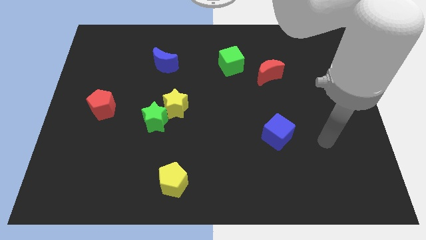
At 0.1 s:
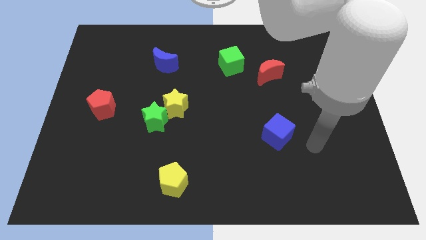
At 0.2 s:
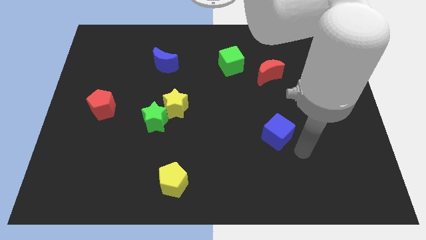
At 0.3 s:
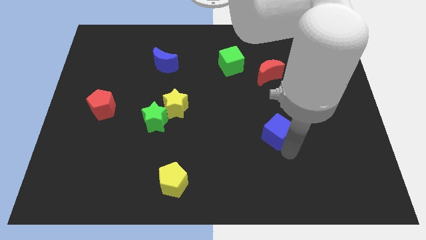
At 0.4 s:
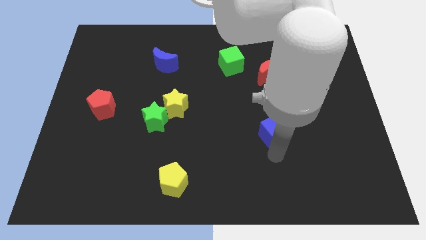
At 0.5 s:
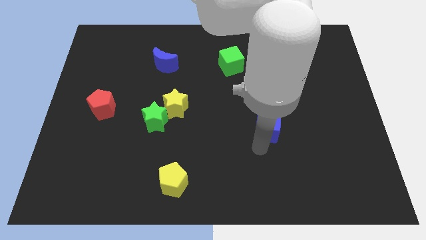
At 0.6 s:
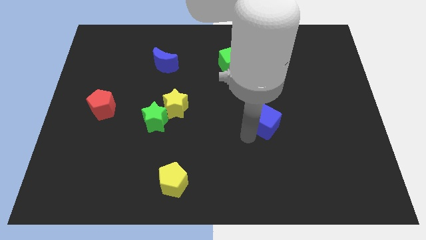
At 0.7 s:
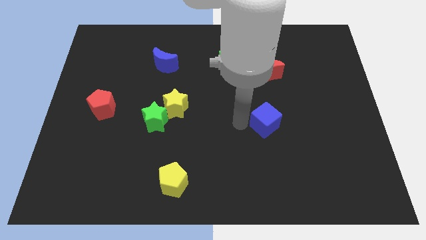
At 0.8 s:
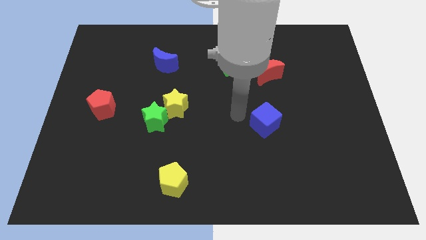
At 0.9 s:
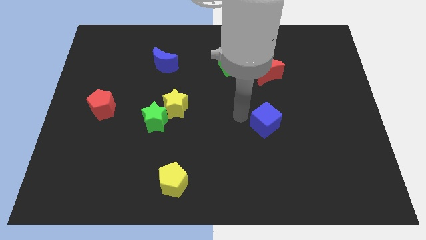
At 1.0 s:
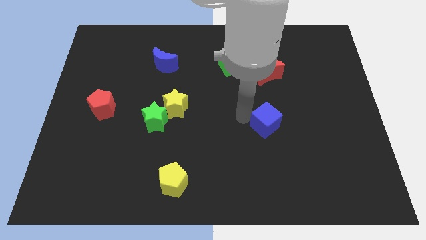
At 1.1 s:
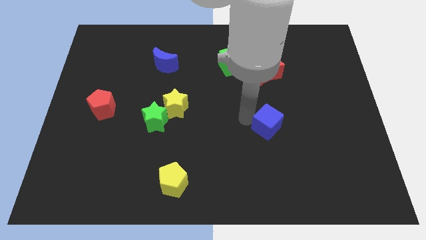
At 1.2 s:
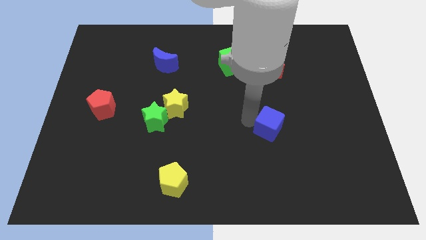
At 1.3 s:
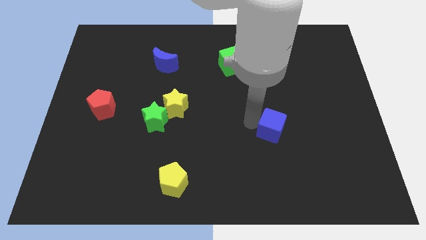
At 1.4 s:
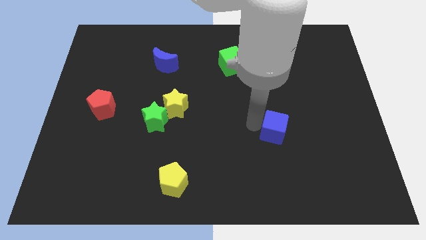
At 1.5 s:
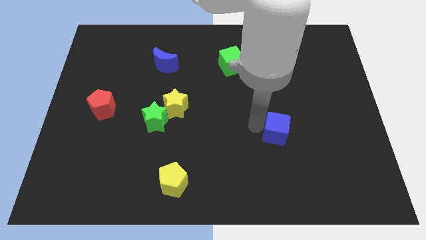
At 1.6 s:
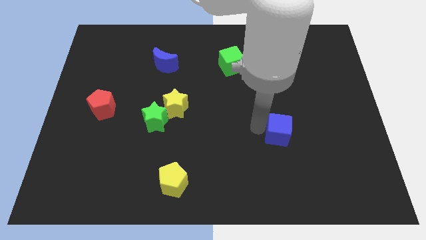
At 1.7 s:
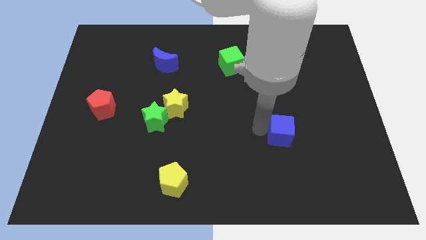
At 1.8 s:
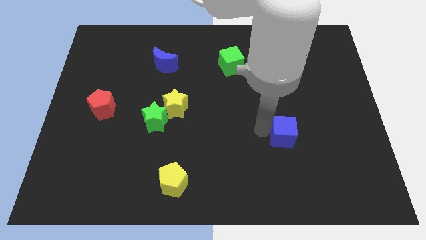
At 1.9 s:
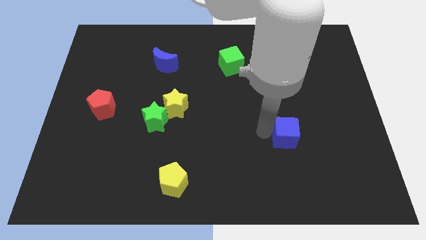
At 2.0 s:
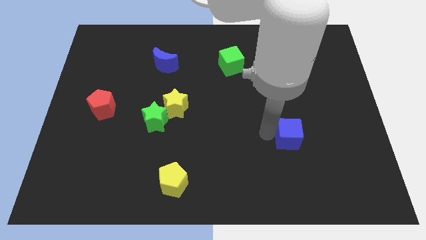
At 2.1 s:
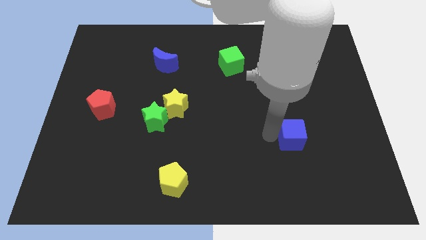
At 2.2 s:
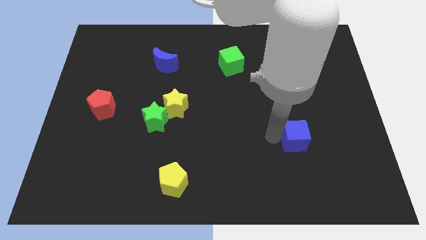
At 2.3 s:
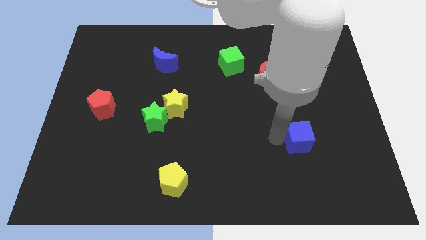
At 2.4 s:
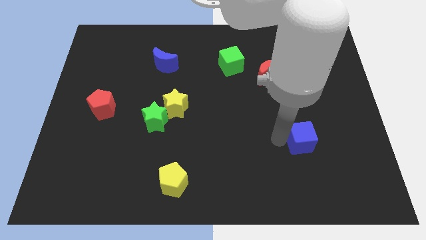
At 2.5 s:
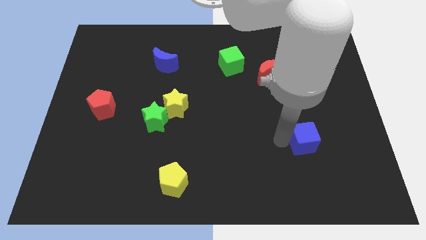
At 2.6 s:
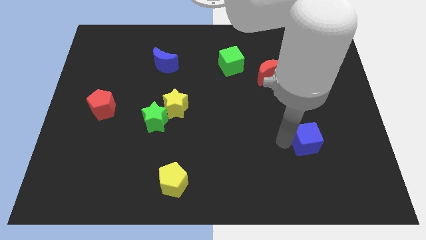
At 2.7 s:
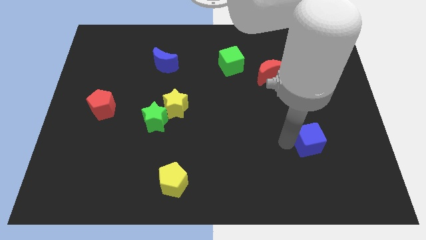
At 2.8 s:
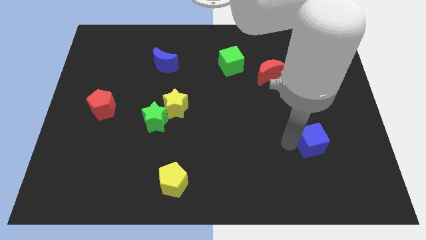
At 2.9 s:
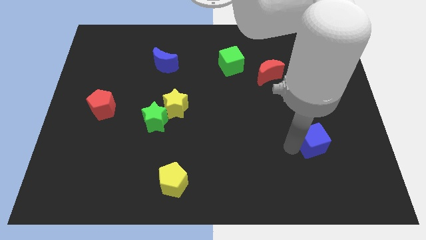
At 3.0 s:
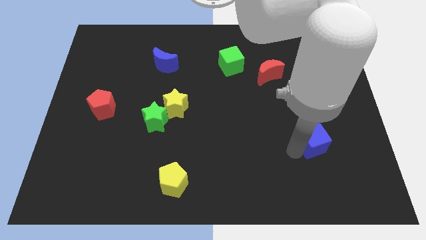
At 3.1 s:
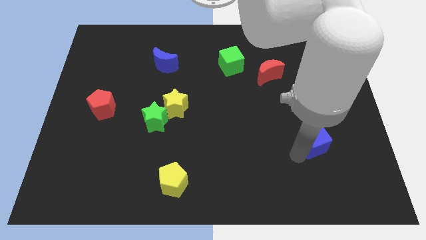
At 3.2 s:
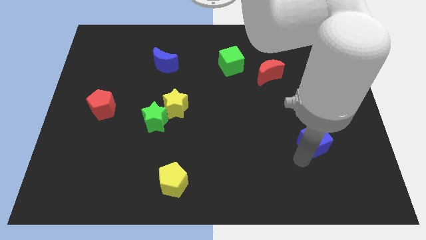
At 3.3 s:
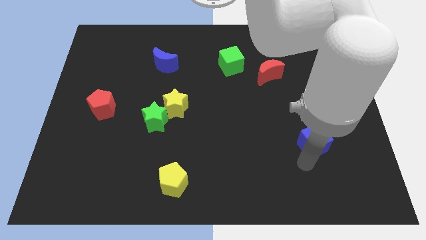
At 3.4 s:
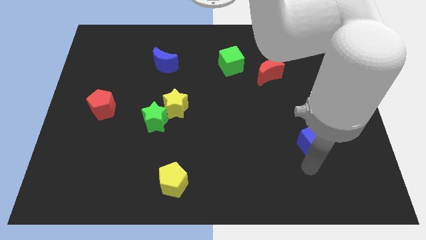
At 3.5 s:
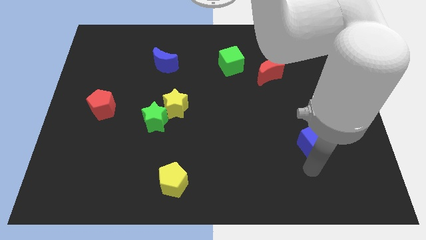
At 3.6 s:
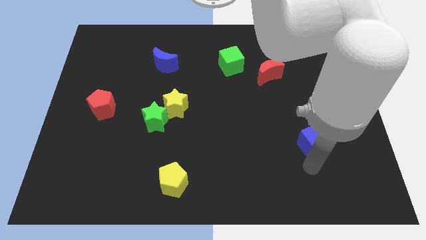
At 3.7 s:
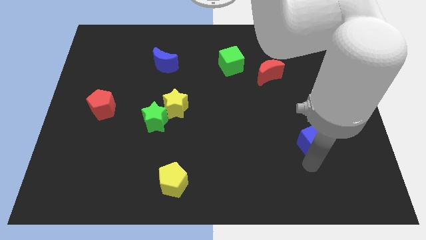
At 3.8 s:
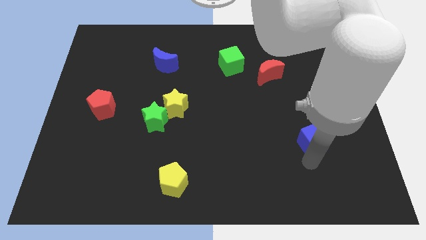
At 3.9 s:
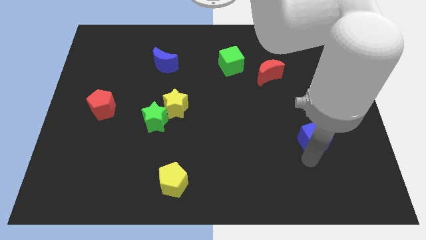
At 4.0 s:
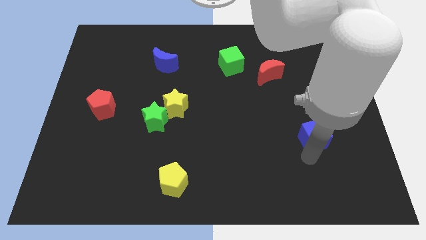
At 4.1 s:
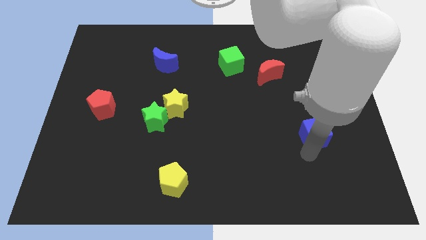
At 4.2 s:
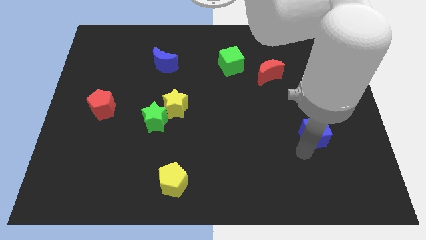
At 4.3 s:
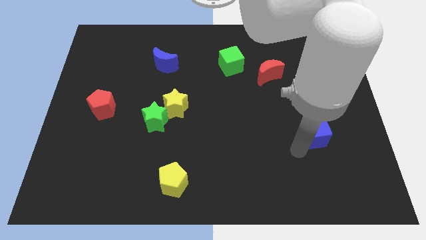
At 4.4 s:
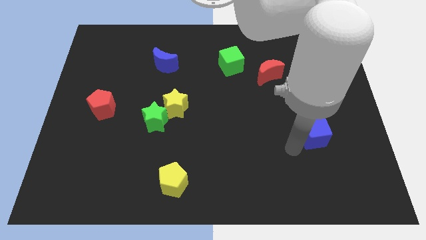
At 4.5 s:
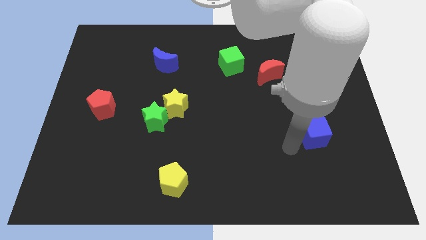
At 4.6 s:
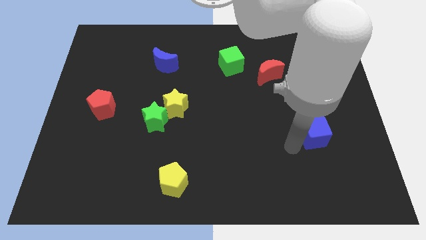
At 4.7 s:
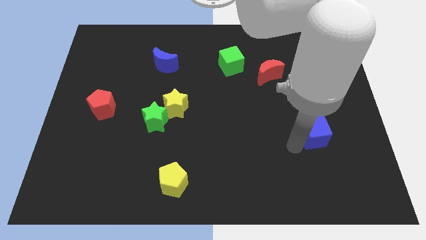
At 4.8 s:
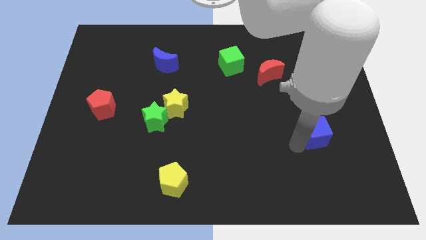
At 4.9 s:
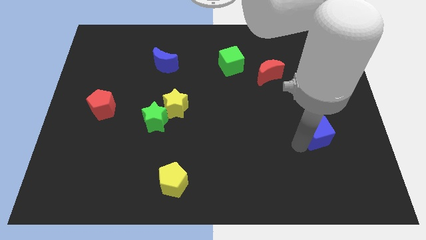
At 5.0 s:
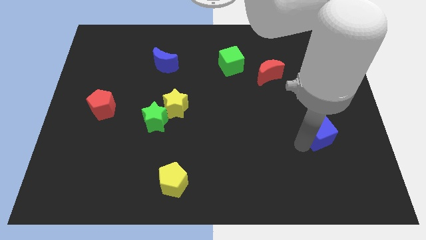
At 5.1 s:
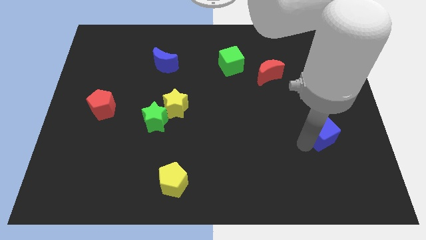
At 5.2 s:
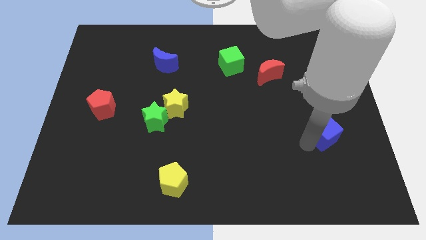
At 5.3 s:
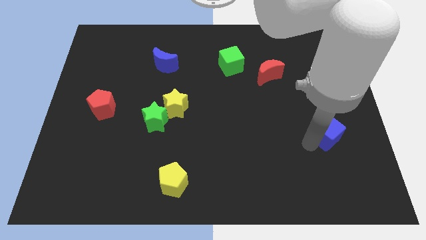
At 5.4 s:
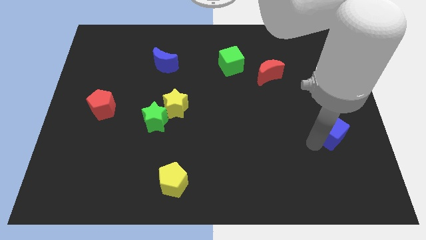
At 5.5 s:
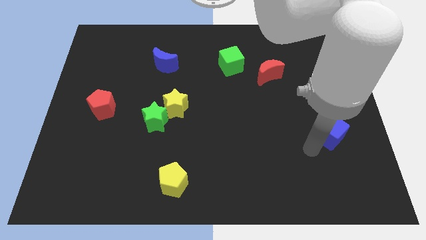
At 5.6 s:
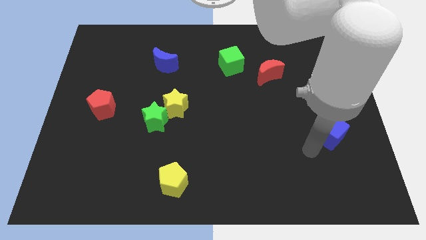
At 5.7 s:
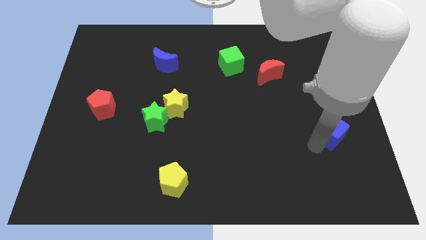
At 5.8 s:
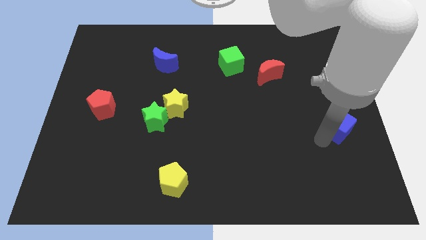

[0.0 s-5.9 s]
move the blue cube to the right side
